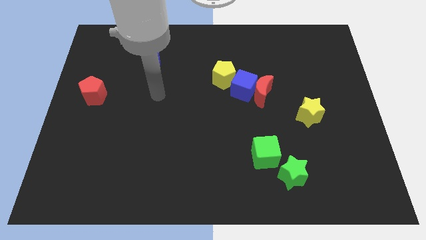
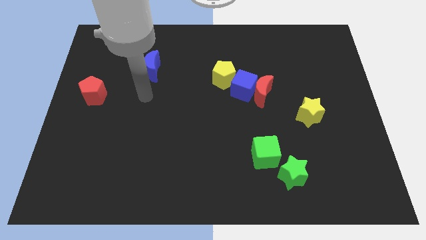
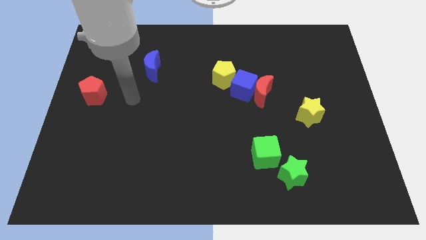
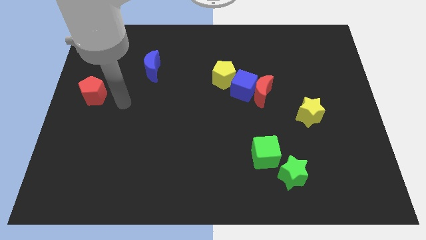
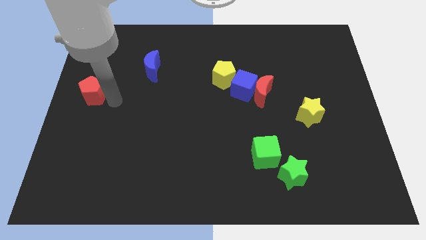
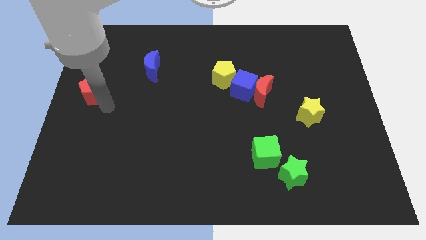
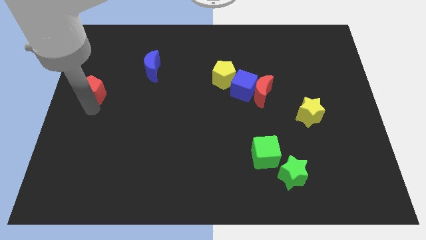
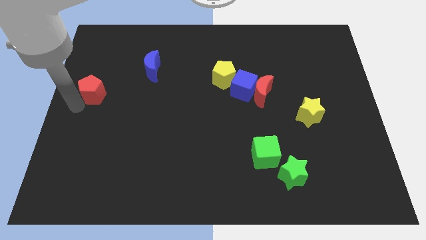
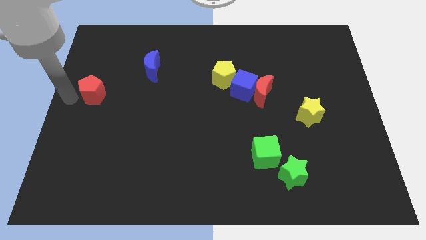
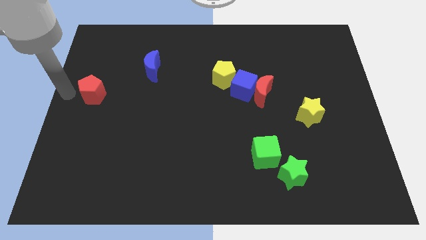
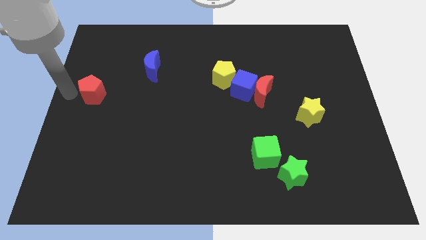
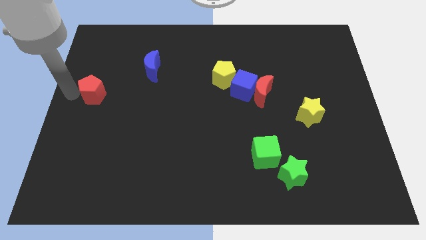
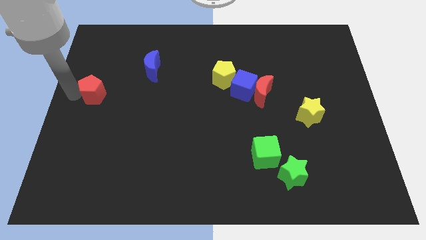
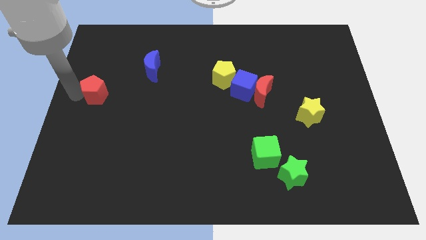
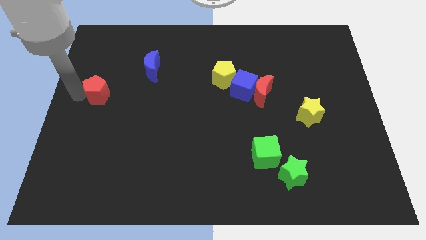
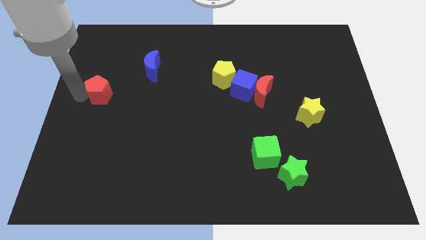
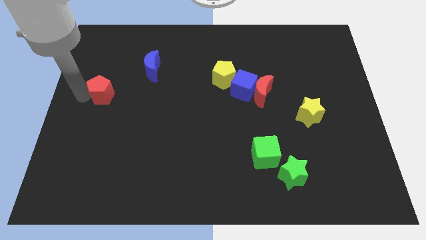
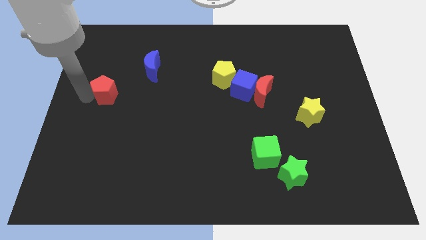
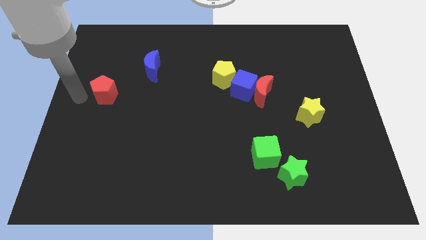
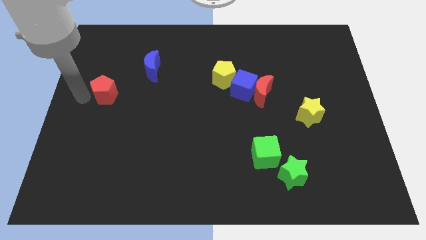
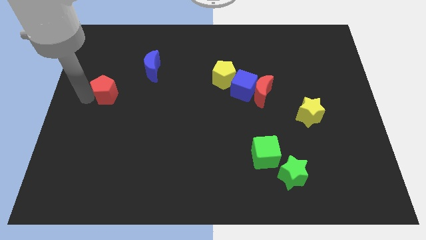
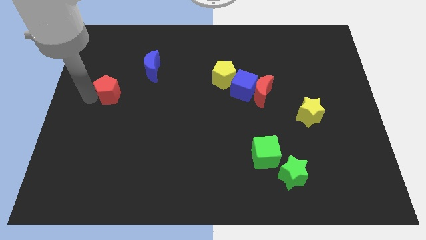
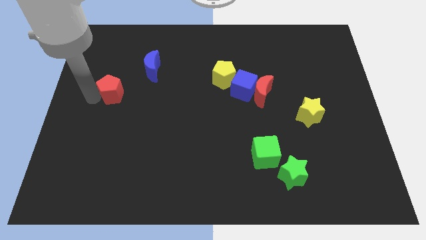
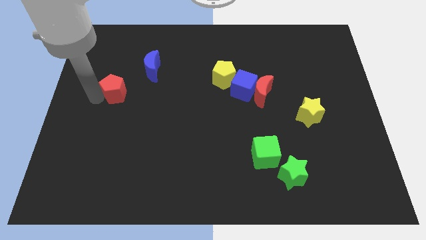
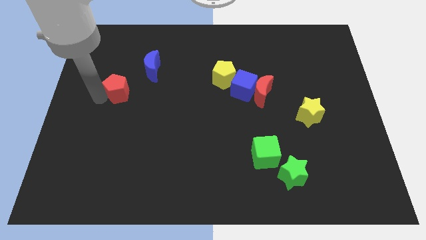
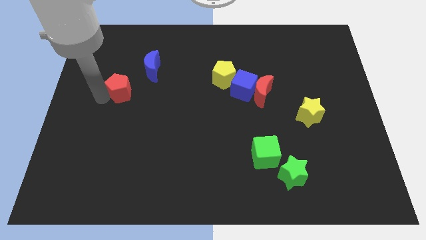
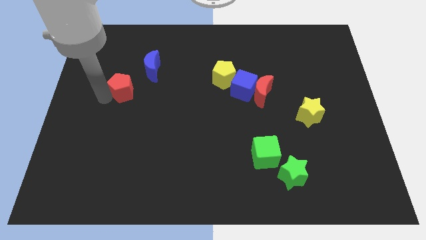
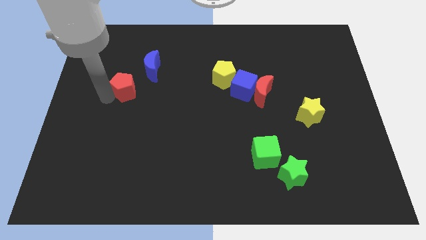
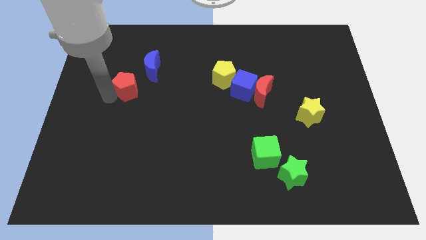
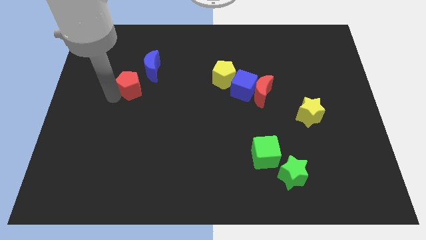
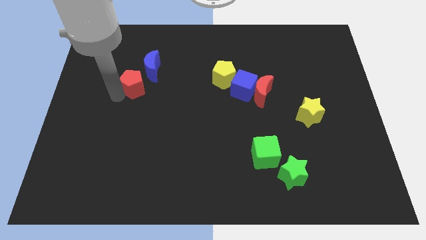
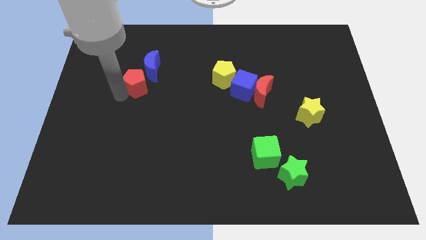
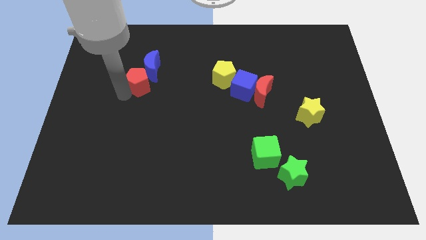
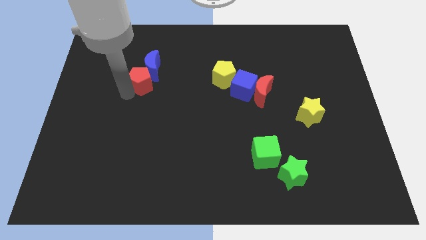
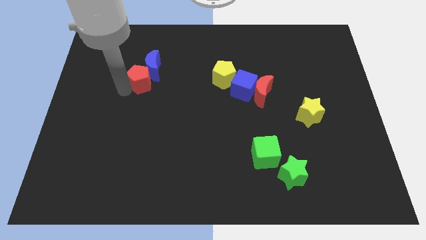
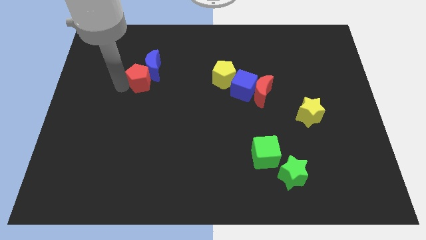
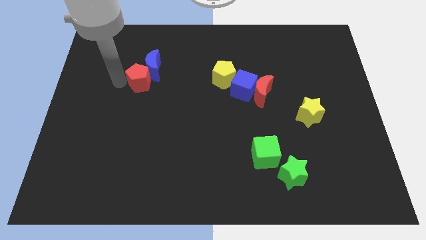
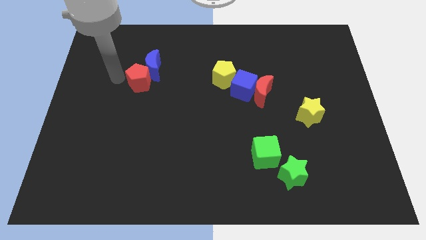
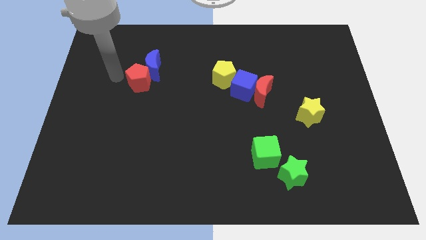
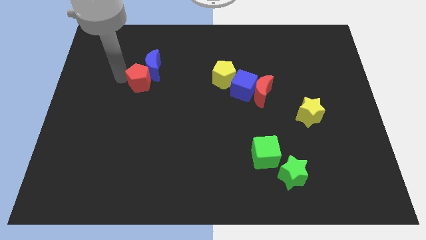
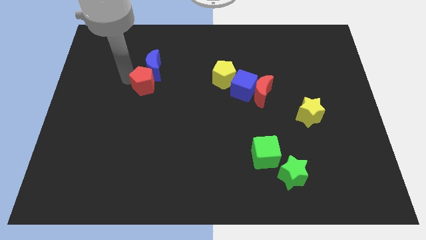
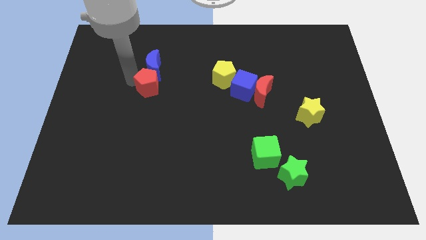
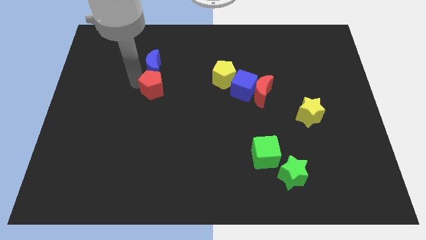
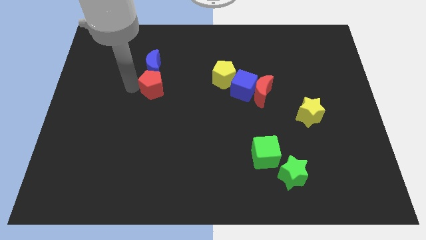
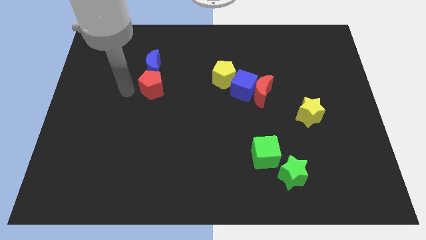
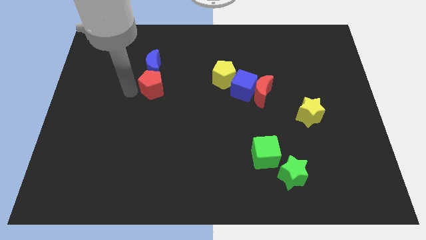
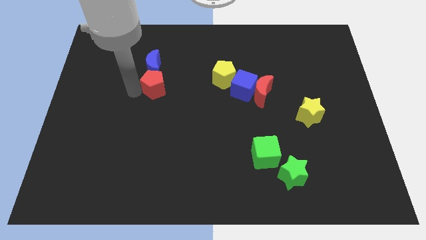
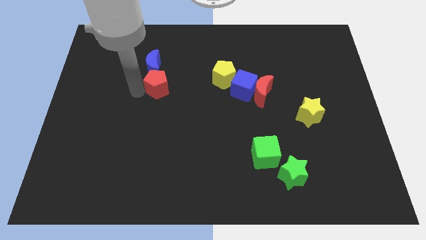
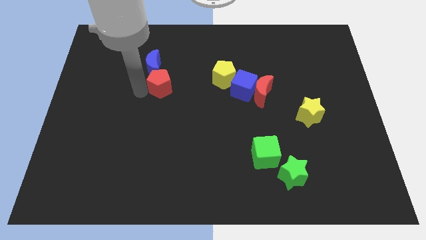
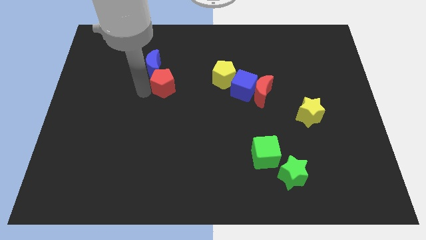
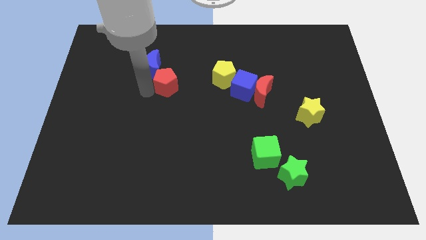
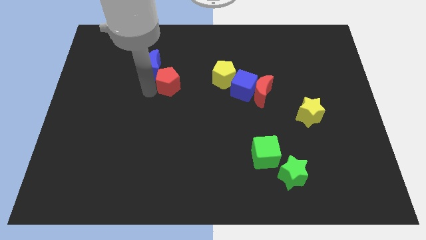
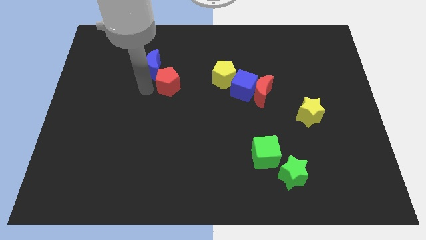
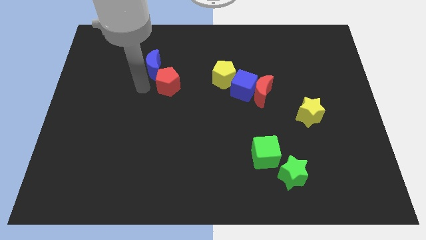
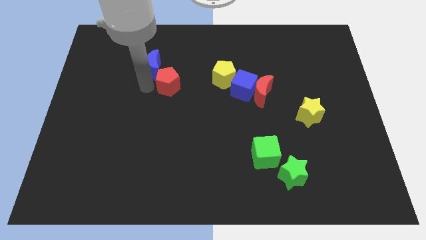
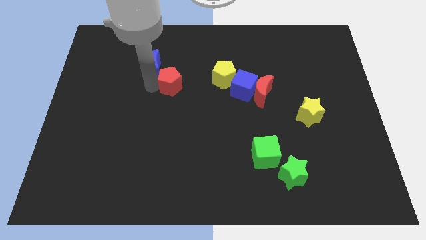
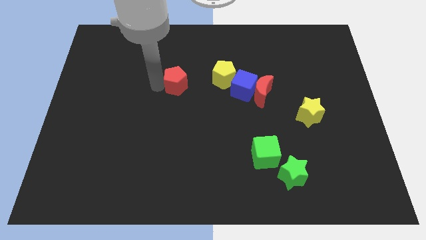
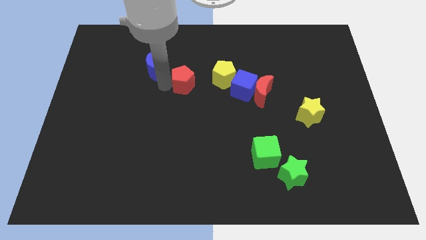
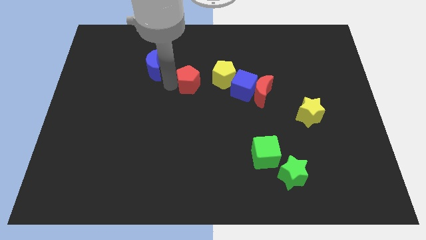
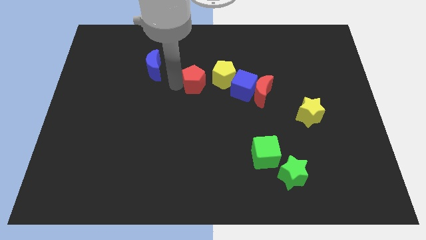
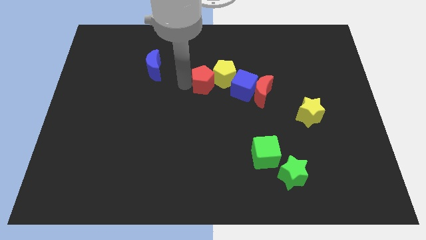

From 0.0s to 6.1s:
move the red pentagon close to the yellow pentagon

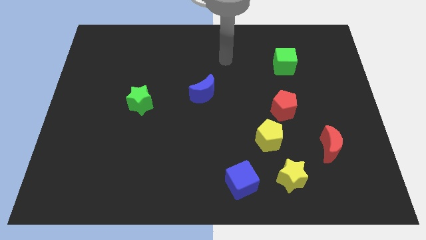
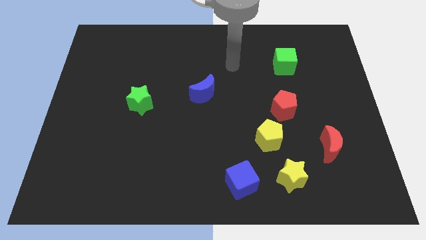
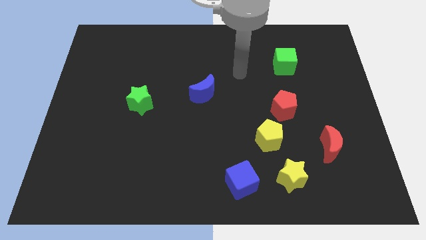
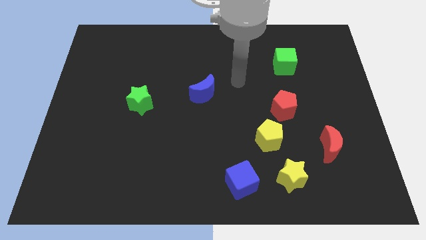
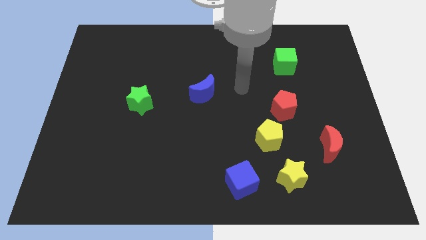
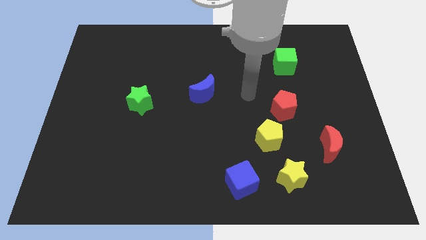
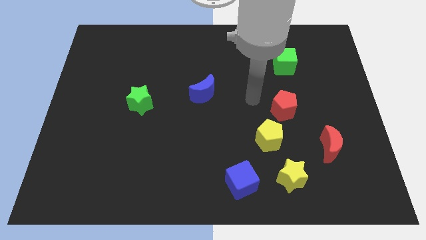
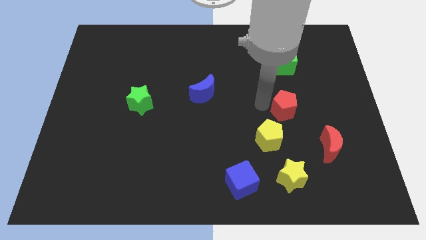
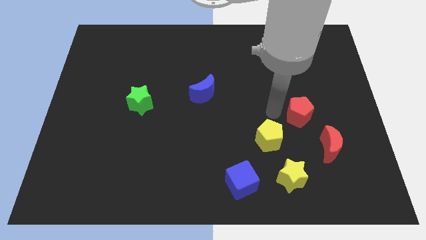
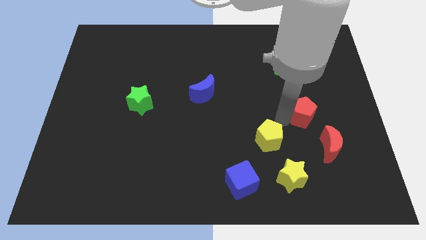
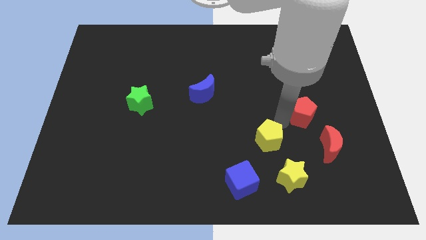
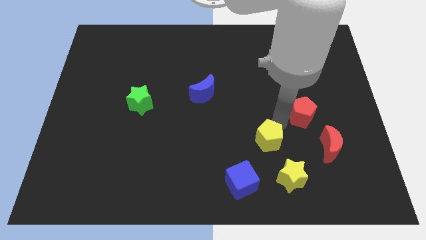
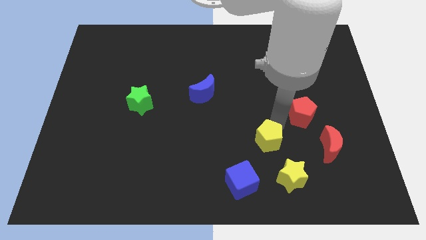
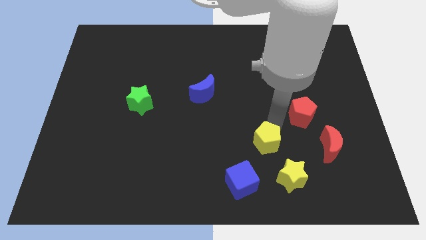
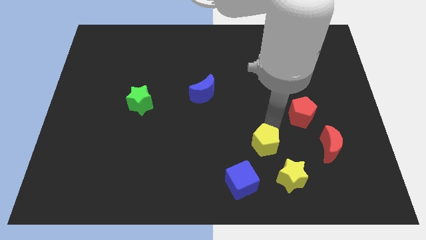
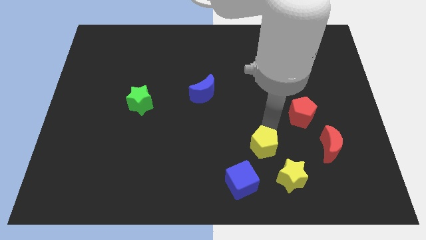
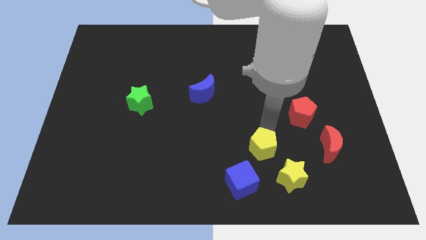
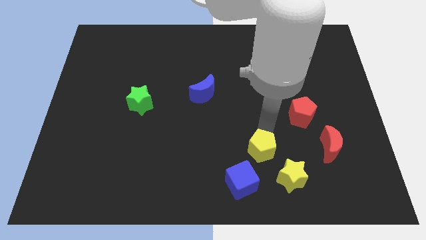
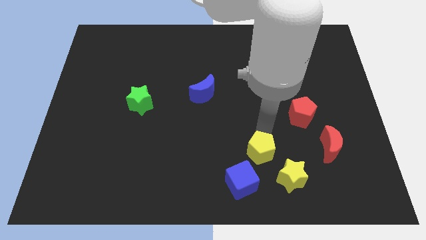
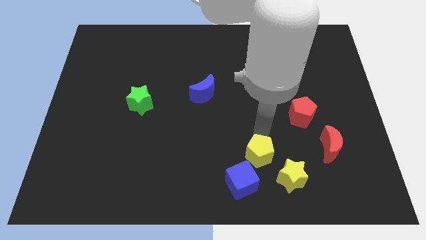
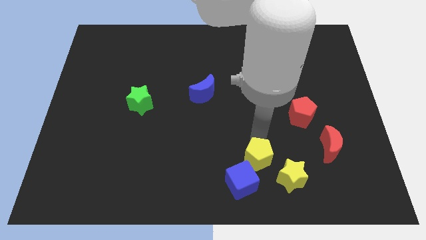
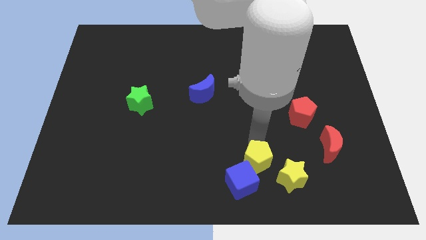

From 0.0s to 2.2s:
slide the yellow pentagon close to the blue cube
